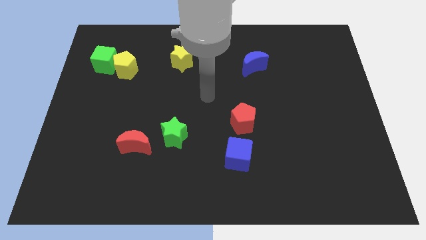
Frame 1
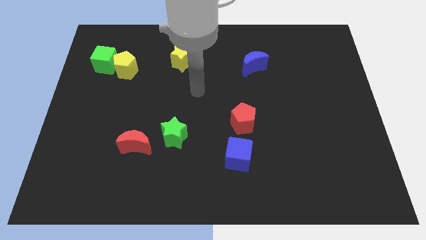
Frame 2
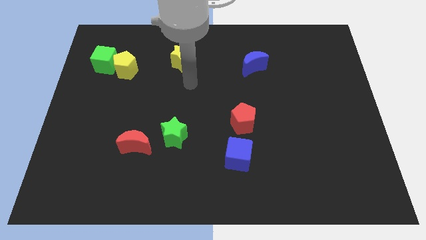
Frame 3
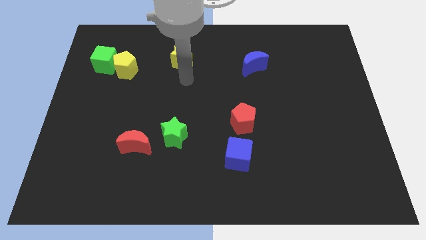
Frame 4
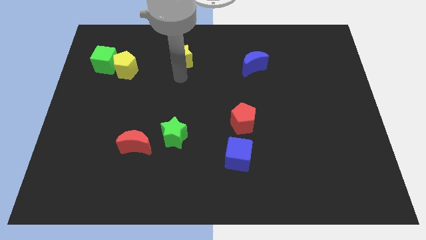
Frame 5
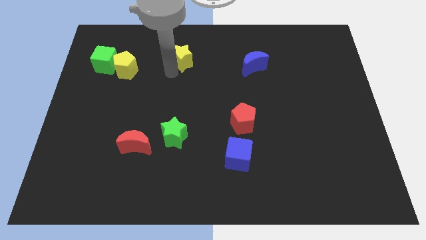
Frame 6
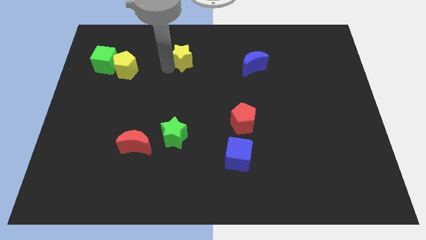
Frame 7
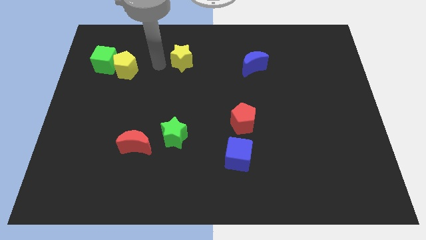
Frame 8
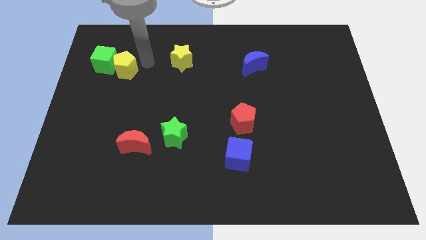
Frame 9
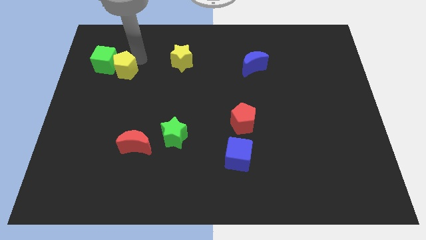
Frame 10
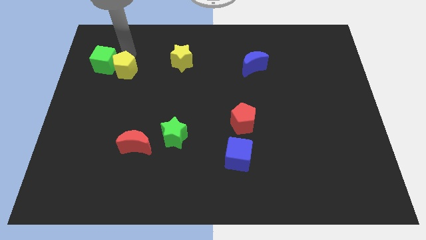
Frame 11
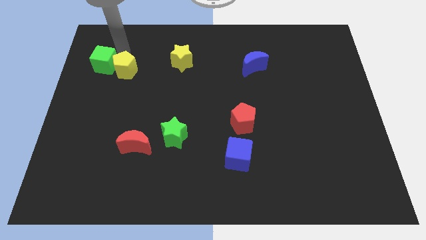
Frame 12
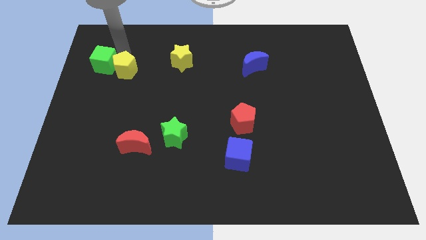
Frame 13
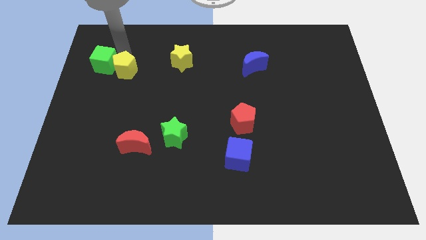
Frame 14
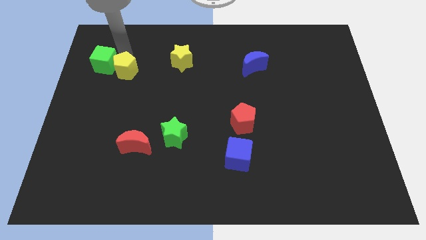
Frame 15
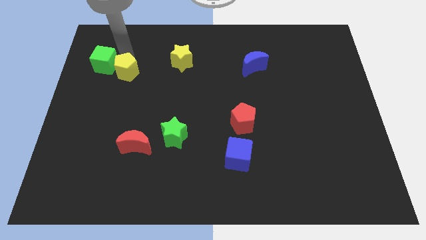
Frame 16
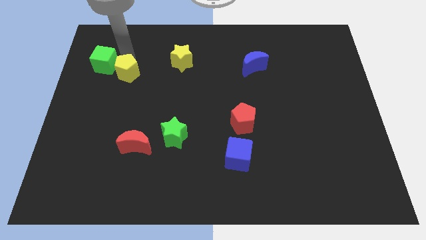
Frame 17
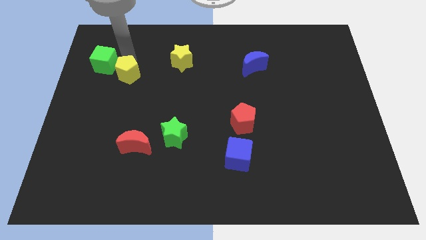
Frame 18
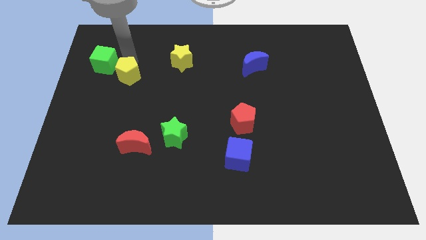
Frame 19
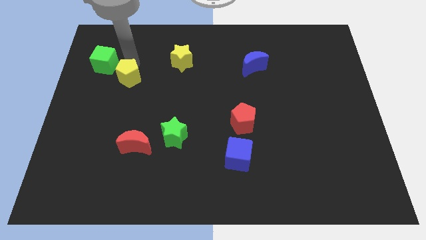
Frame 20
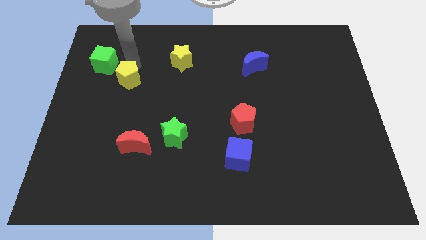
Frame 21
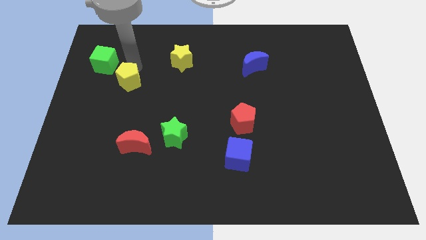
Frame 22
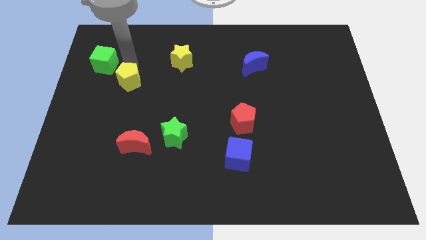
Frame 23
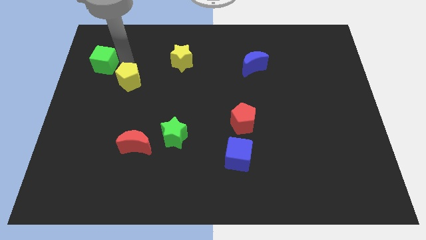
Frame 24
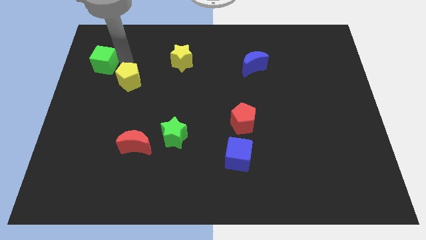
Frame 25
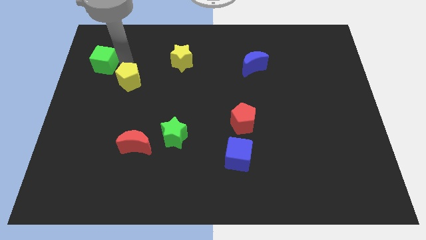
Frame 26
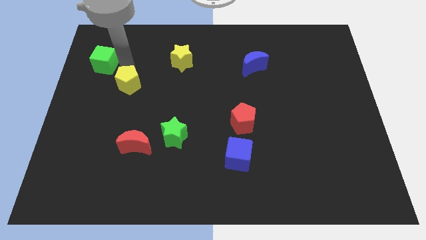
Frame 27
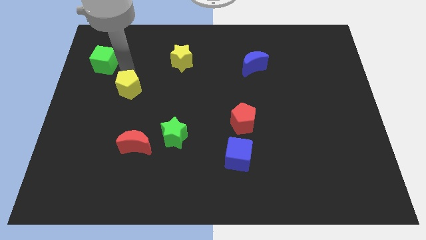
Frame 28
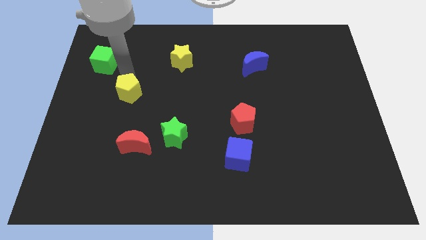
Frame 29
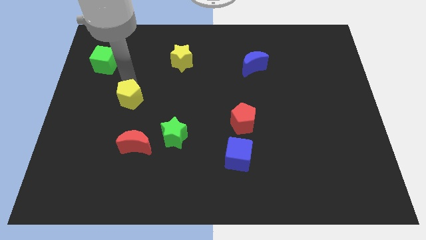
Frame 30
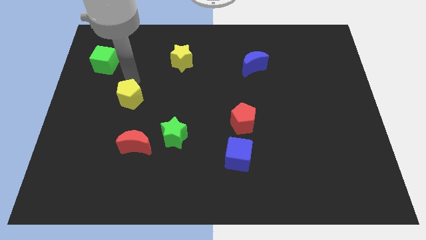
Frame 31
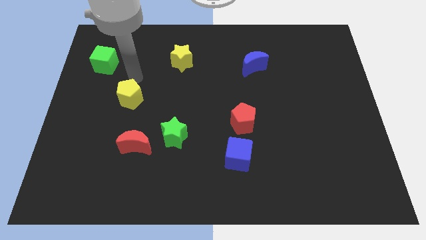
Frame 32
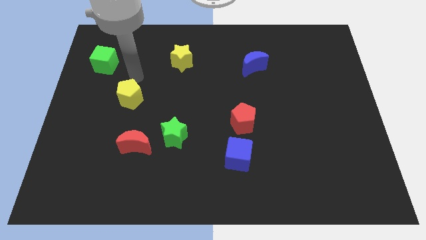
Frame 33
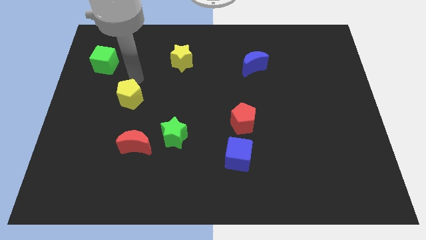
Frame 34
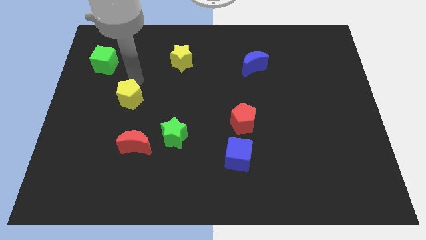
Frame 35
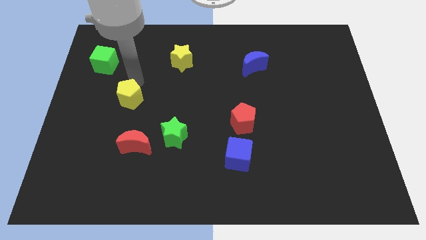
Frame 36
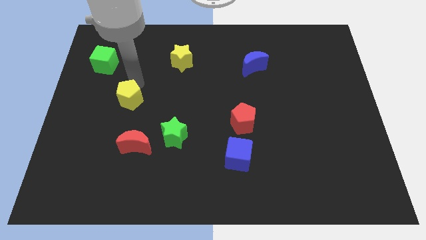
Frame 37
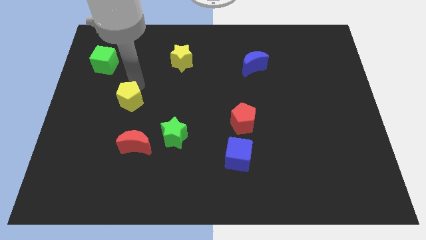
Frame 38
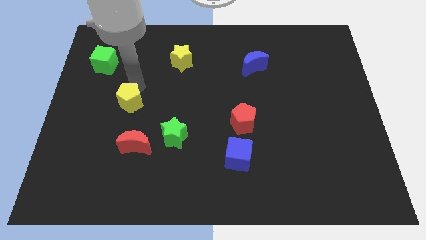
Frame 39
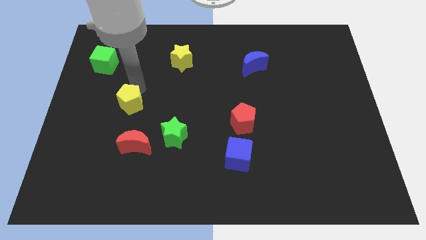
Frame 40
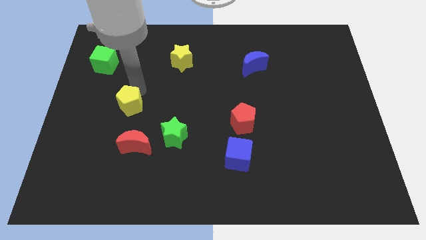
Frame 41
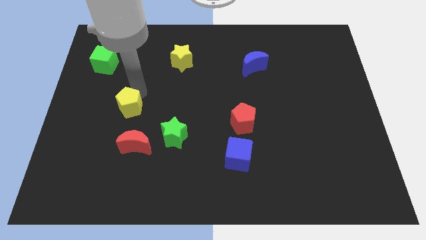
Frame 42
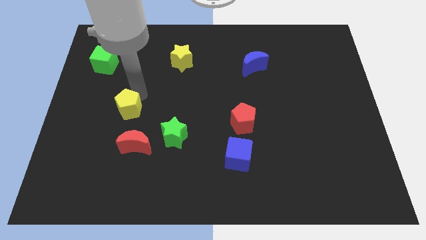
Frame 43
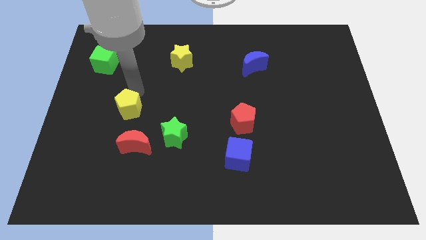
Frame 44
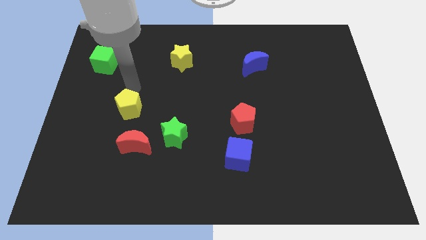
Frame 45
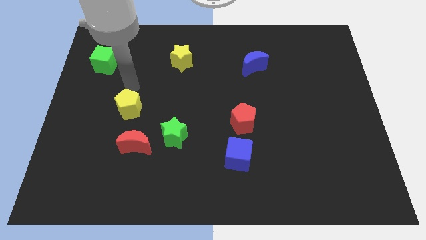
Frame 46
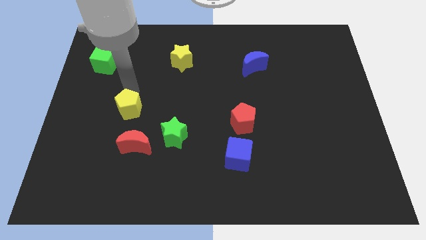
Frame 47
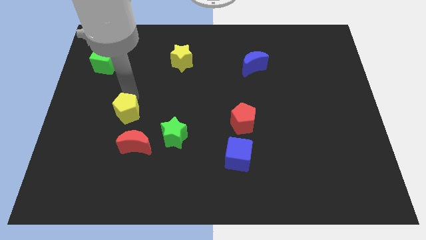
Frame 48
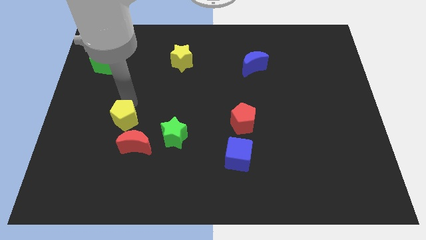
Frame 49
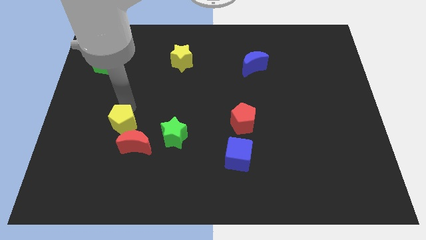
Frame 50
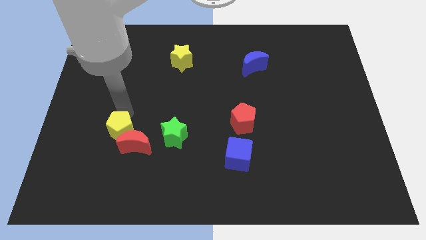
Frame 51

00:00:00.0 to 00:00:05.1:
move the yellow pentagon next to the red moon

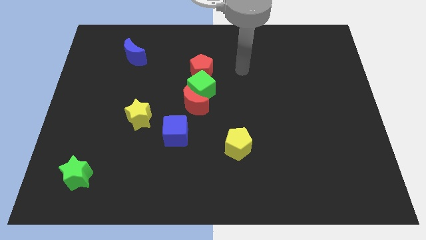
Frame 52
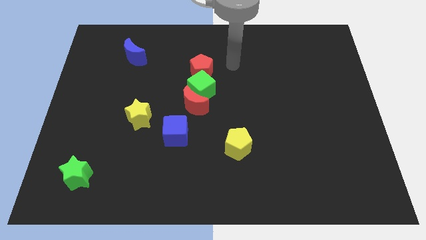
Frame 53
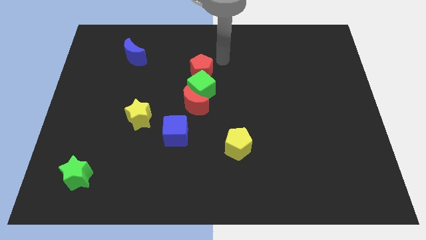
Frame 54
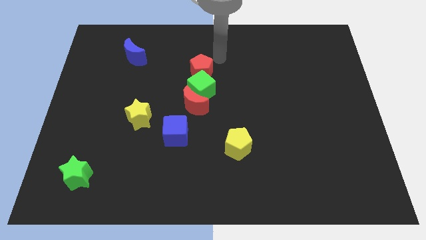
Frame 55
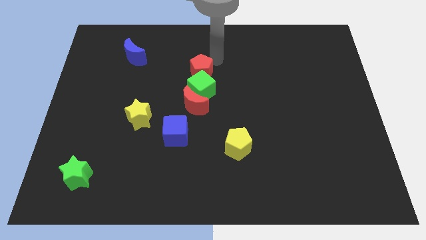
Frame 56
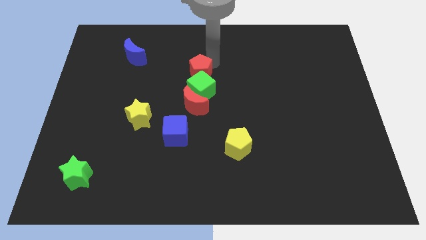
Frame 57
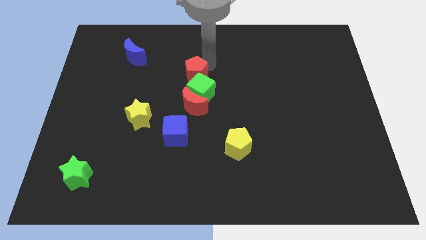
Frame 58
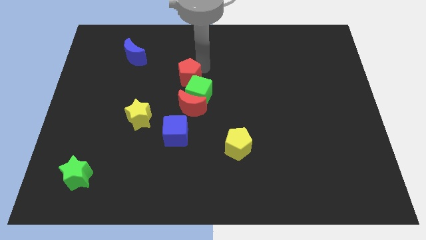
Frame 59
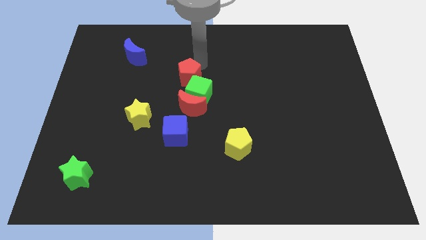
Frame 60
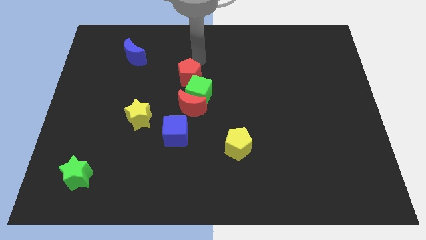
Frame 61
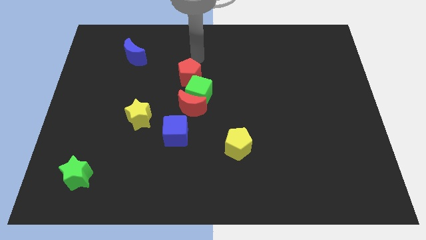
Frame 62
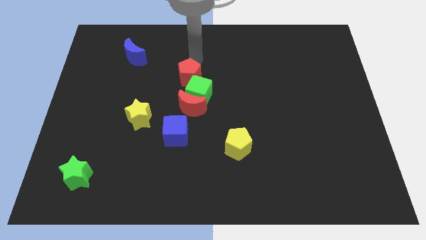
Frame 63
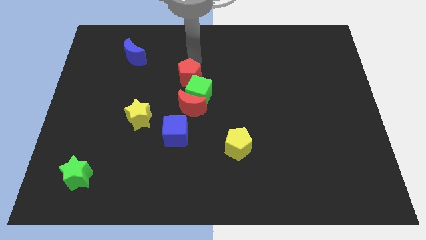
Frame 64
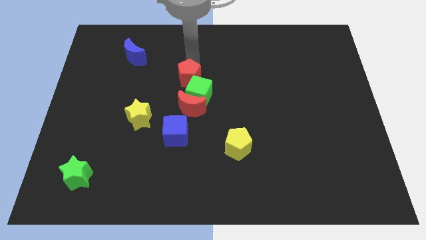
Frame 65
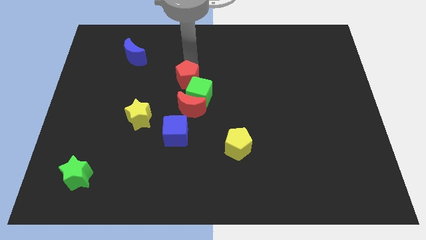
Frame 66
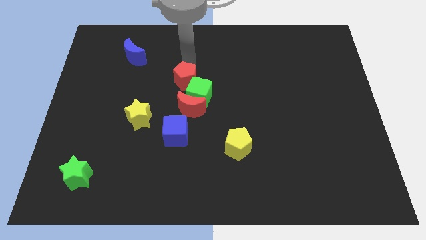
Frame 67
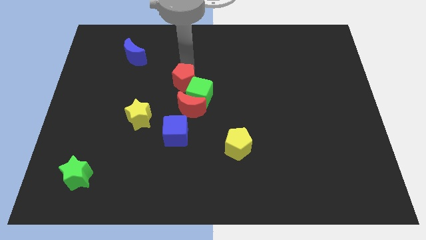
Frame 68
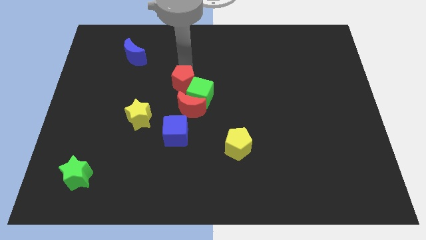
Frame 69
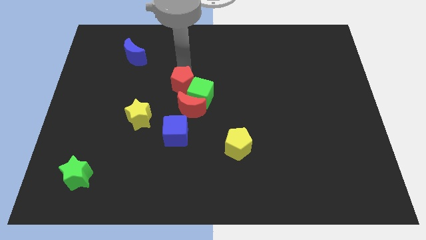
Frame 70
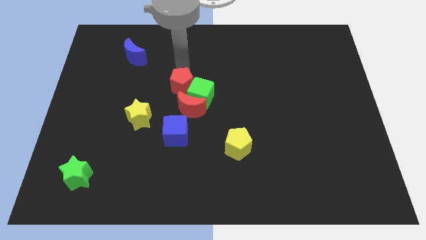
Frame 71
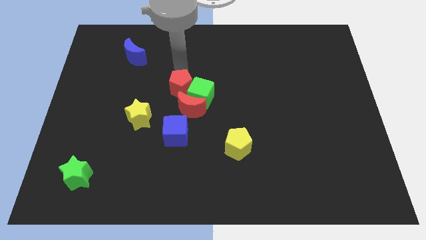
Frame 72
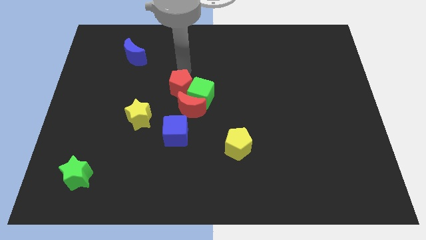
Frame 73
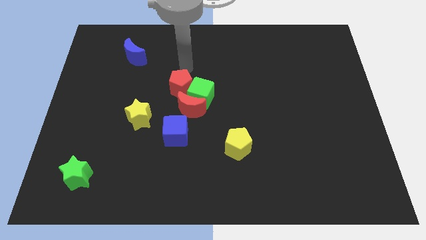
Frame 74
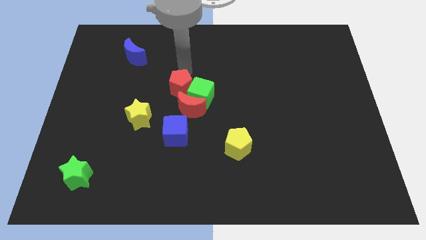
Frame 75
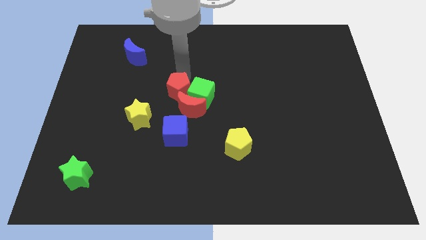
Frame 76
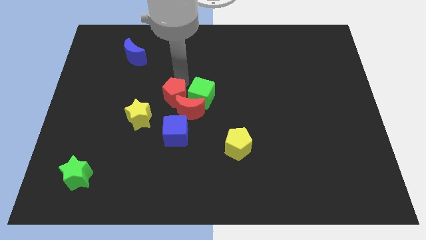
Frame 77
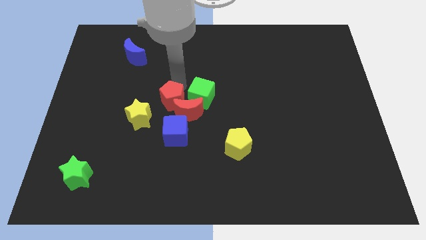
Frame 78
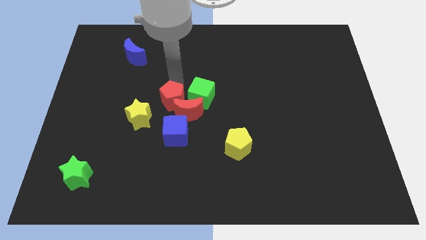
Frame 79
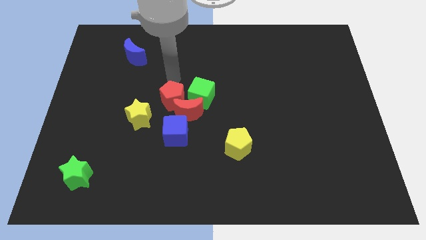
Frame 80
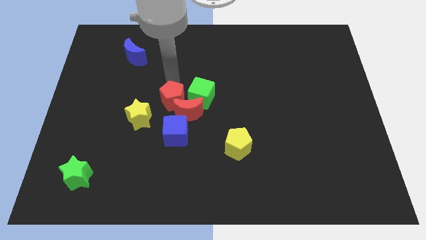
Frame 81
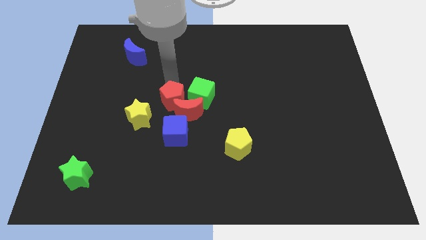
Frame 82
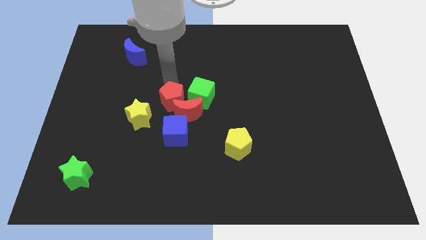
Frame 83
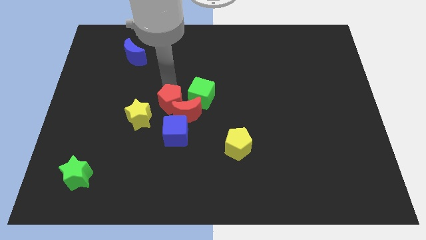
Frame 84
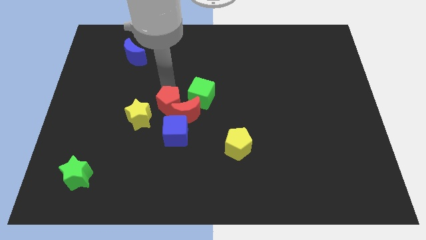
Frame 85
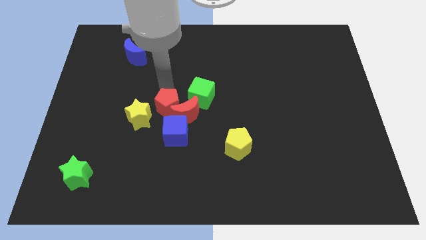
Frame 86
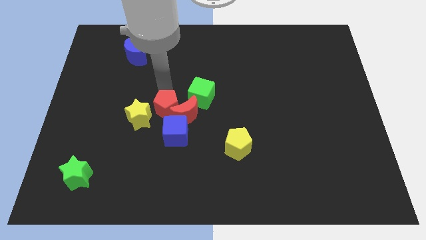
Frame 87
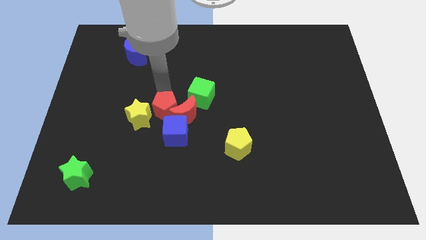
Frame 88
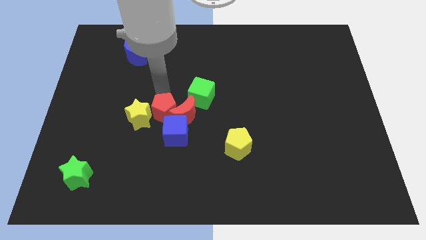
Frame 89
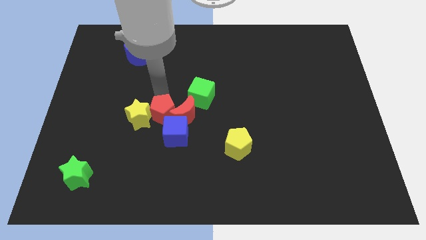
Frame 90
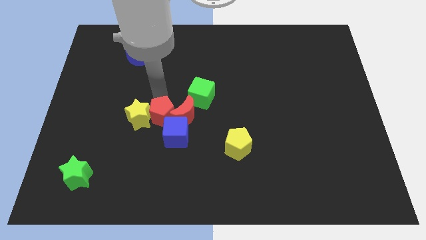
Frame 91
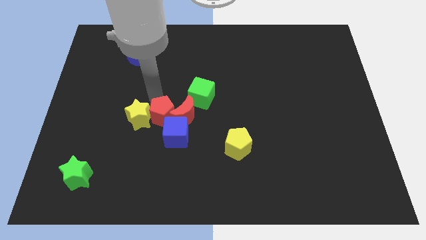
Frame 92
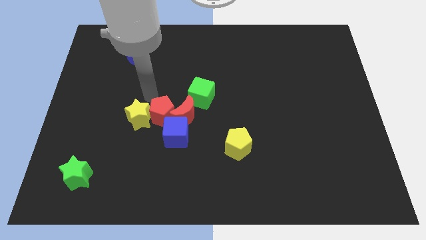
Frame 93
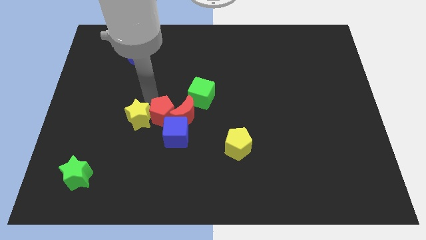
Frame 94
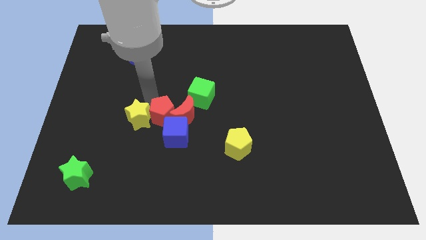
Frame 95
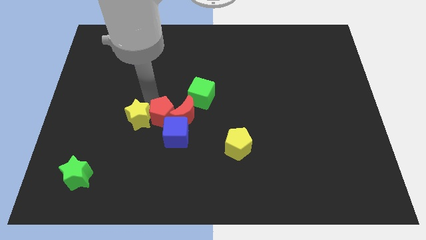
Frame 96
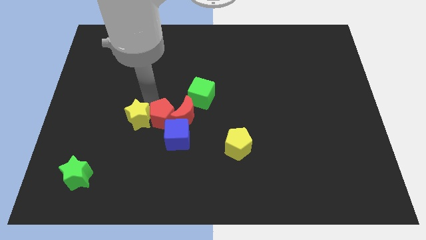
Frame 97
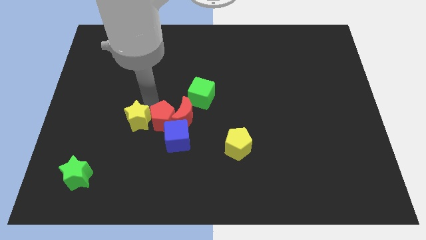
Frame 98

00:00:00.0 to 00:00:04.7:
put the red pentagon towards the blue cube
